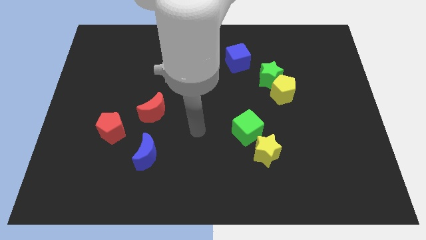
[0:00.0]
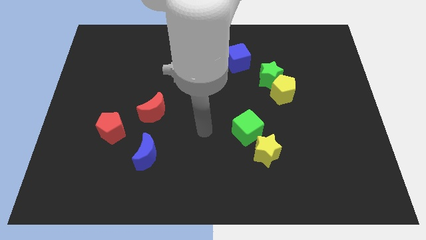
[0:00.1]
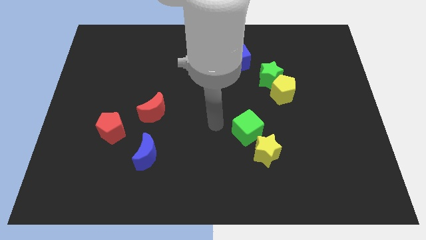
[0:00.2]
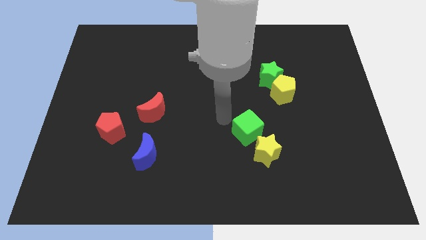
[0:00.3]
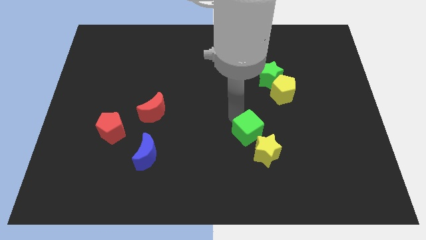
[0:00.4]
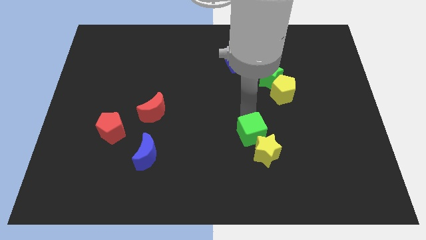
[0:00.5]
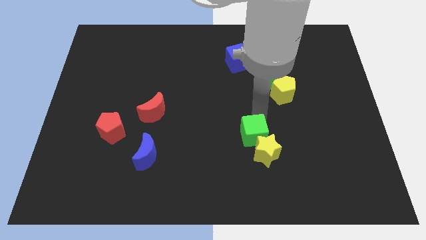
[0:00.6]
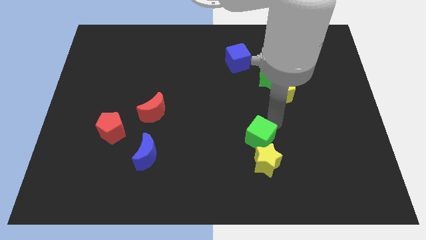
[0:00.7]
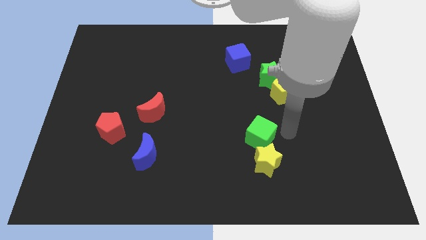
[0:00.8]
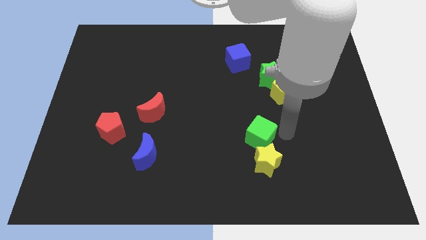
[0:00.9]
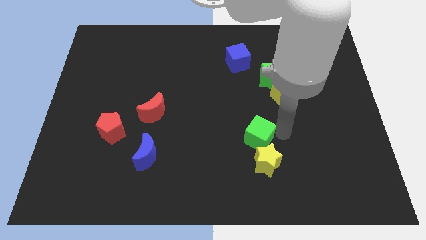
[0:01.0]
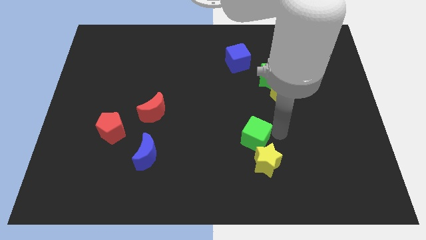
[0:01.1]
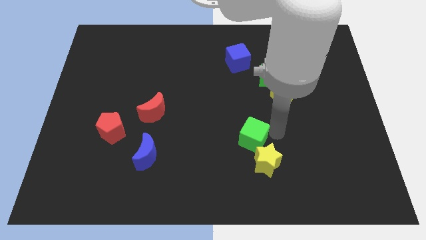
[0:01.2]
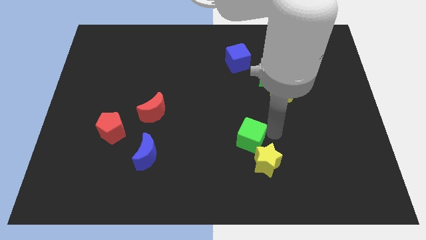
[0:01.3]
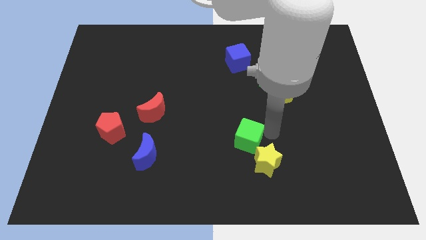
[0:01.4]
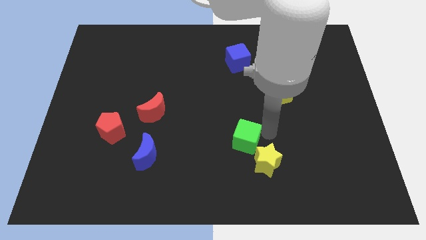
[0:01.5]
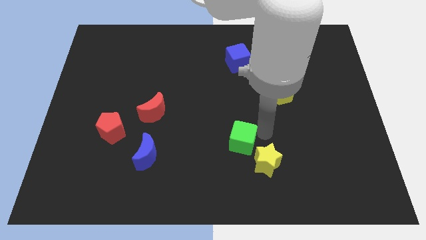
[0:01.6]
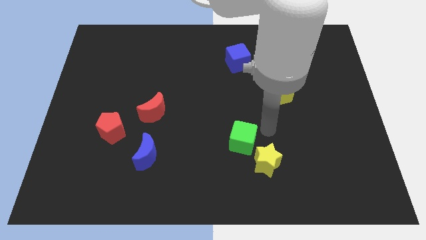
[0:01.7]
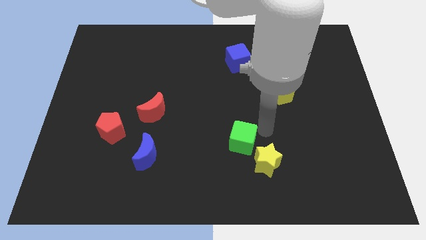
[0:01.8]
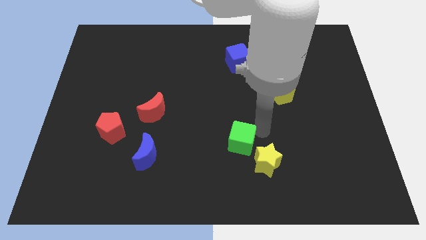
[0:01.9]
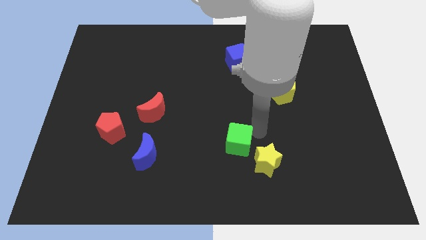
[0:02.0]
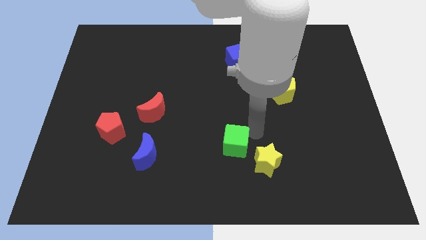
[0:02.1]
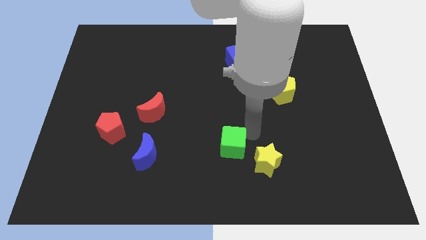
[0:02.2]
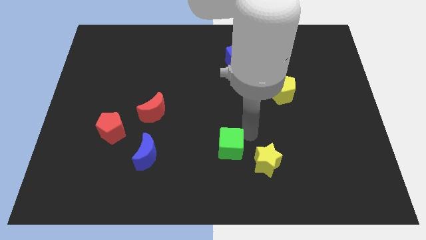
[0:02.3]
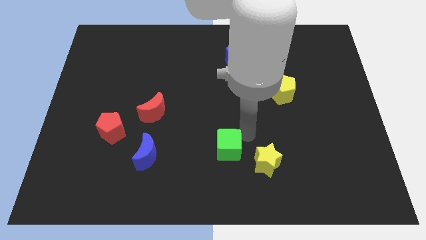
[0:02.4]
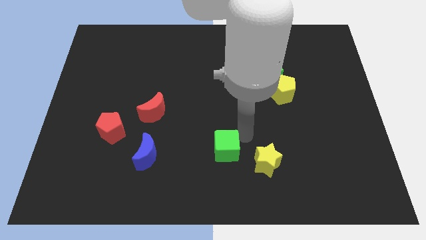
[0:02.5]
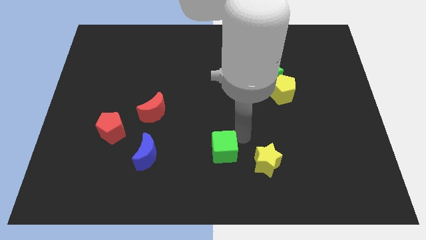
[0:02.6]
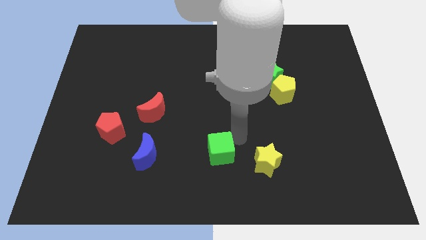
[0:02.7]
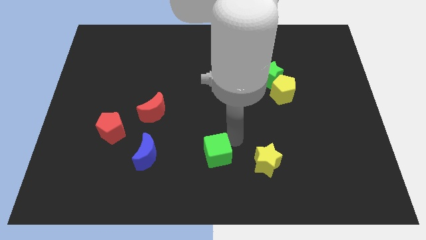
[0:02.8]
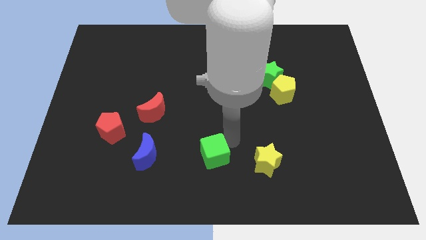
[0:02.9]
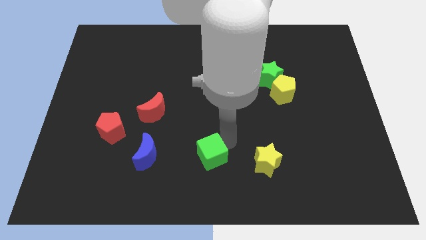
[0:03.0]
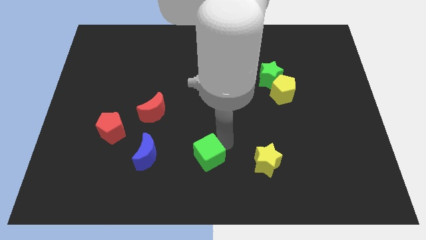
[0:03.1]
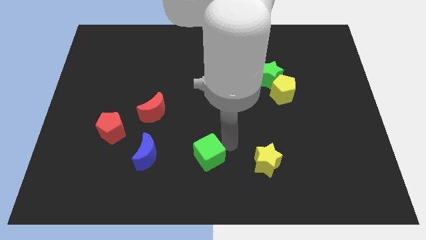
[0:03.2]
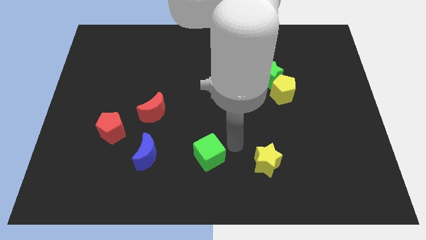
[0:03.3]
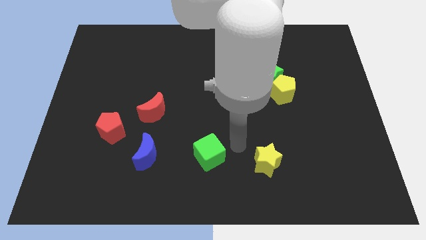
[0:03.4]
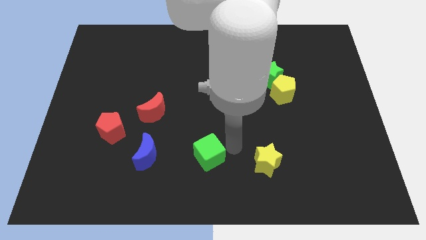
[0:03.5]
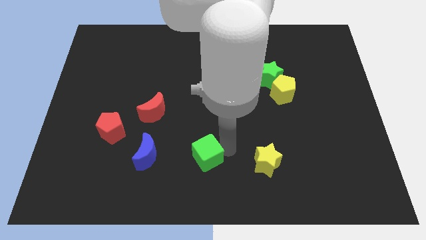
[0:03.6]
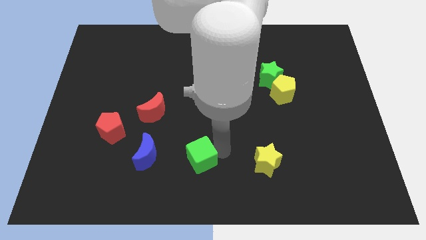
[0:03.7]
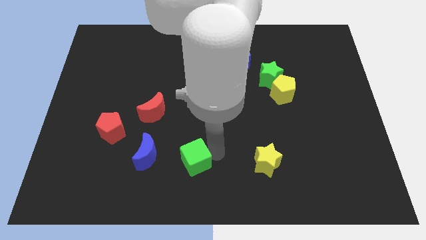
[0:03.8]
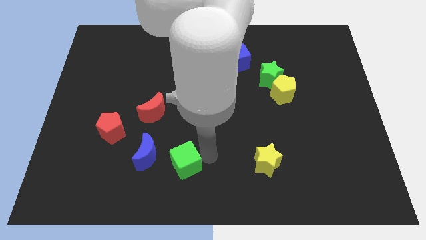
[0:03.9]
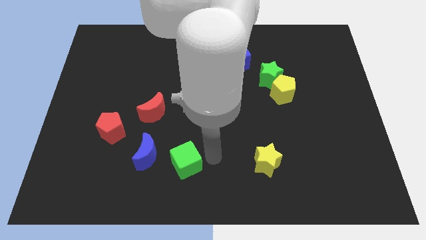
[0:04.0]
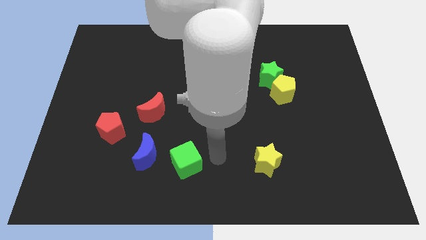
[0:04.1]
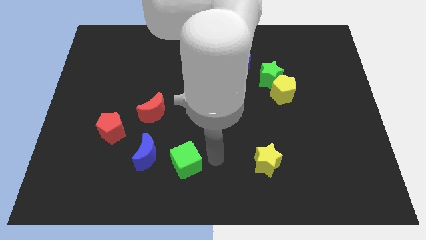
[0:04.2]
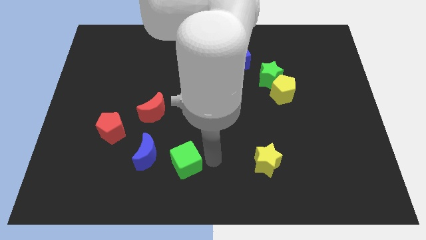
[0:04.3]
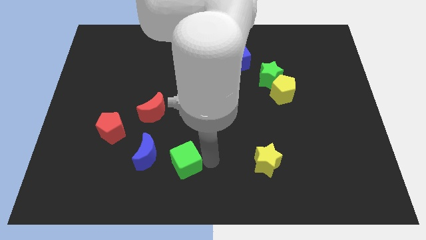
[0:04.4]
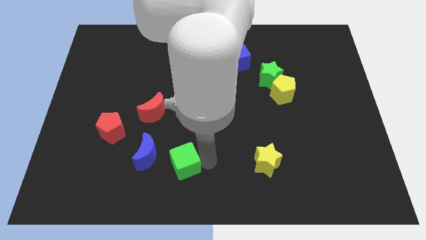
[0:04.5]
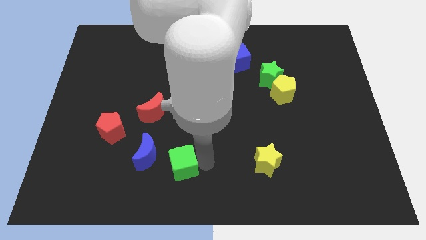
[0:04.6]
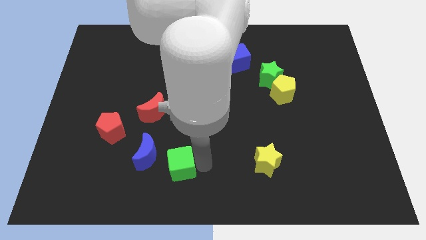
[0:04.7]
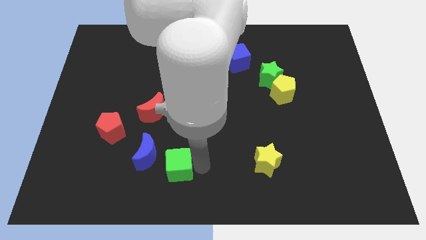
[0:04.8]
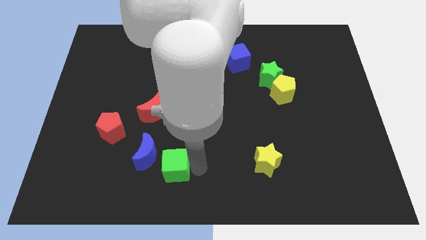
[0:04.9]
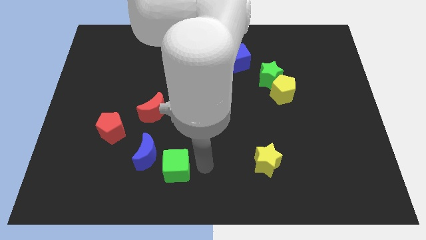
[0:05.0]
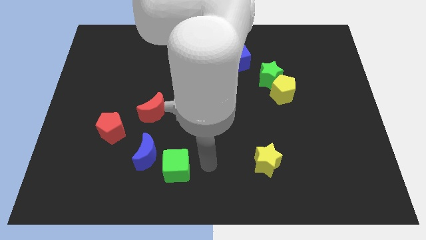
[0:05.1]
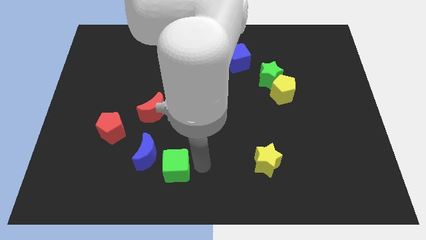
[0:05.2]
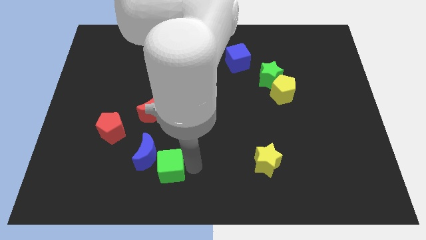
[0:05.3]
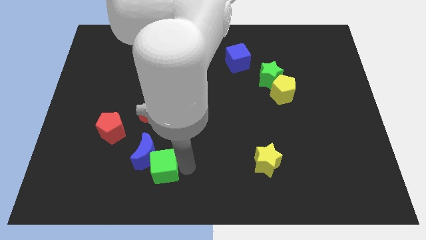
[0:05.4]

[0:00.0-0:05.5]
put the green cube to the bottom of the red moon

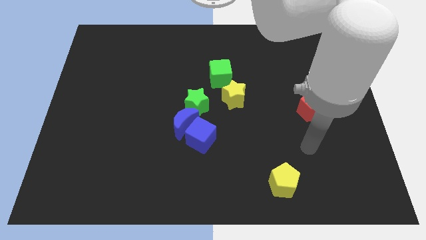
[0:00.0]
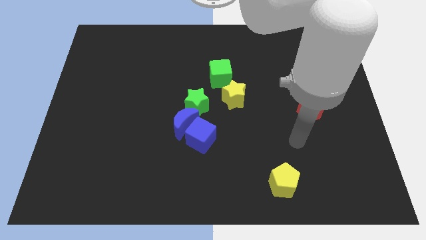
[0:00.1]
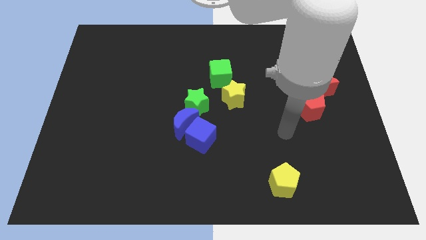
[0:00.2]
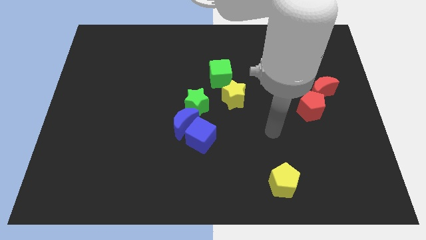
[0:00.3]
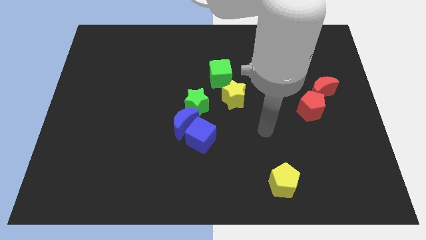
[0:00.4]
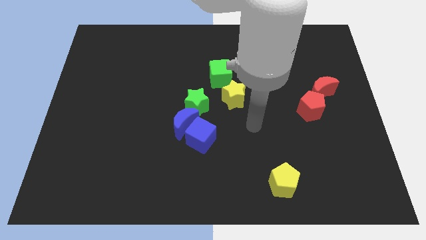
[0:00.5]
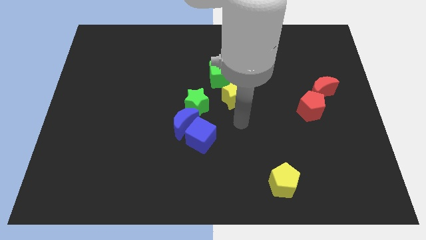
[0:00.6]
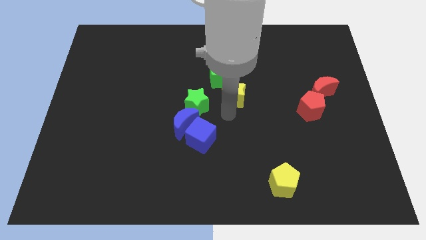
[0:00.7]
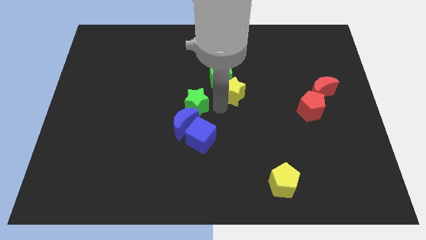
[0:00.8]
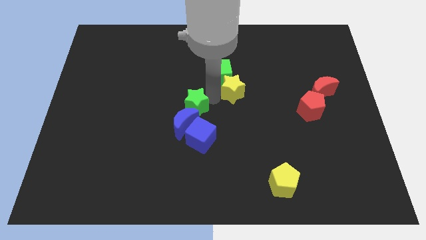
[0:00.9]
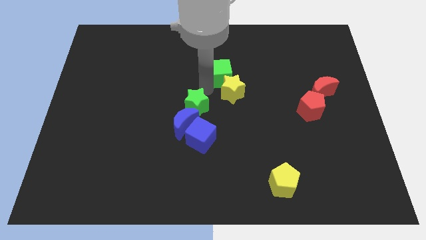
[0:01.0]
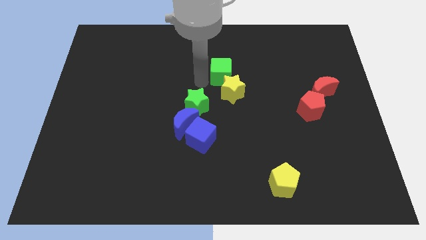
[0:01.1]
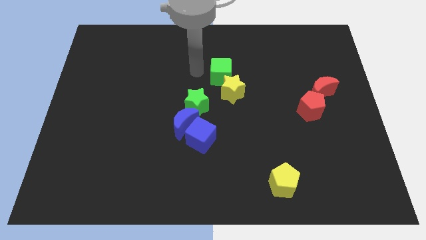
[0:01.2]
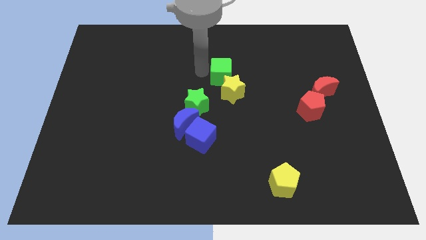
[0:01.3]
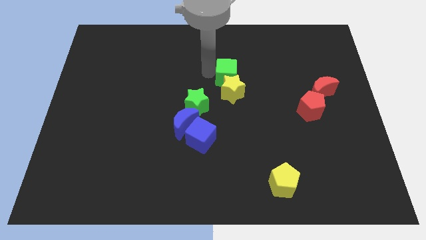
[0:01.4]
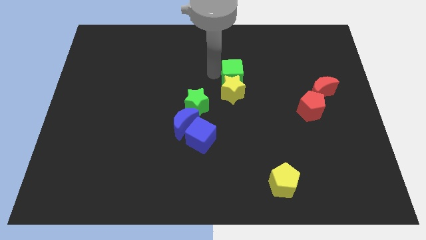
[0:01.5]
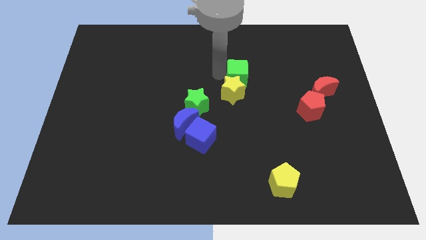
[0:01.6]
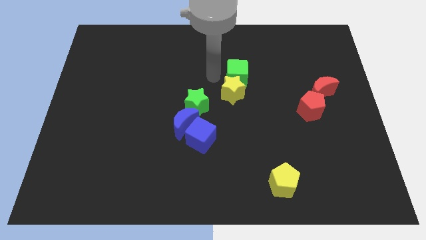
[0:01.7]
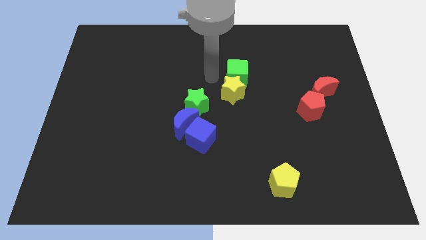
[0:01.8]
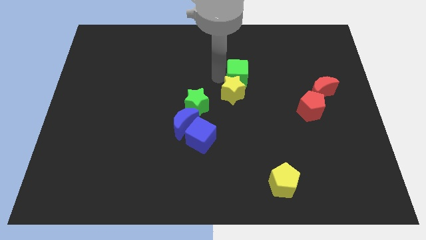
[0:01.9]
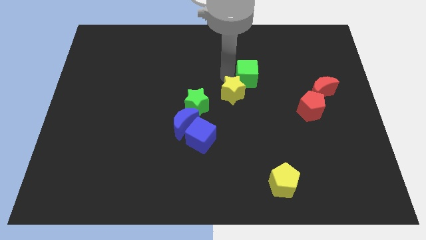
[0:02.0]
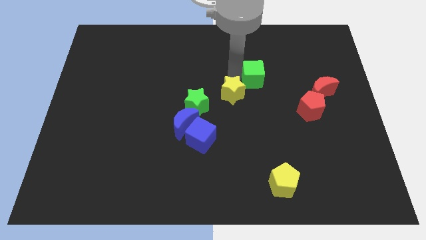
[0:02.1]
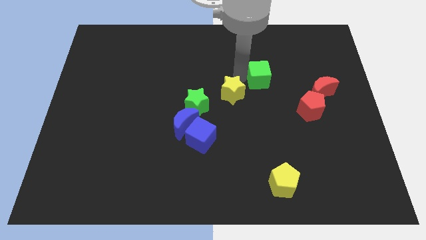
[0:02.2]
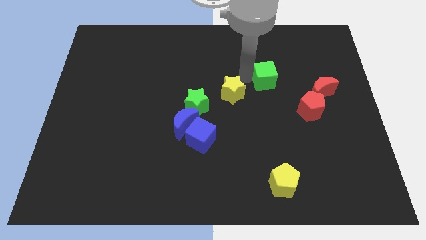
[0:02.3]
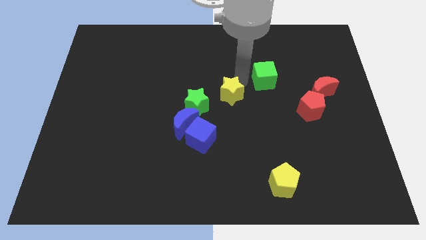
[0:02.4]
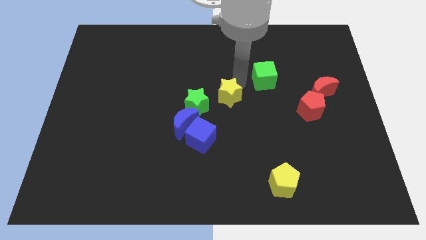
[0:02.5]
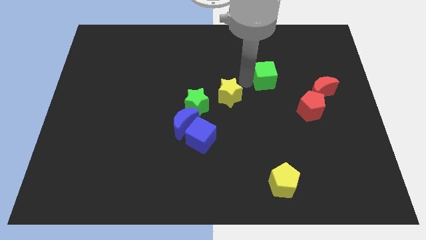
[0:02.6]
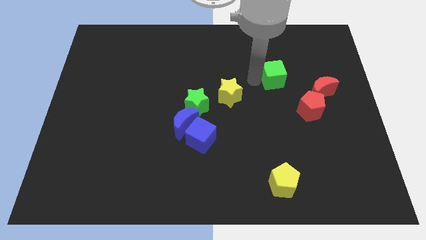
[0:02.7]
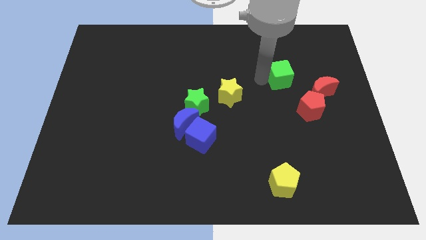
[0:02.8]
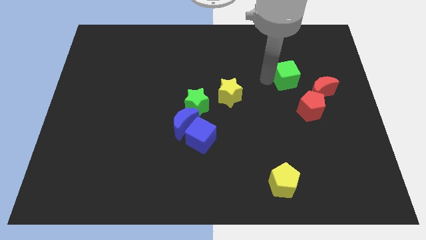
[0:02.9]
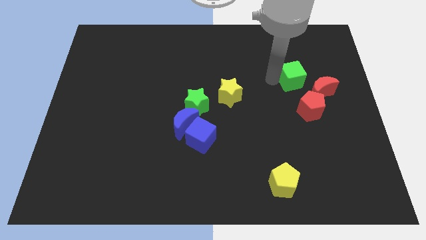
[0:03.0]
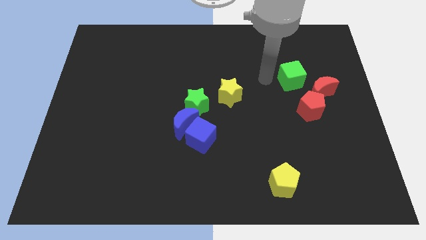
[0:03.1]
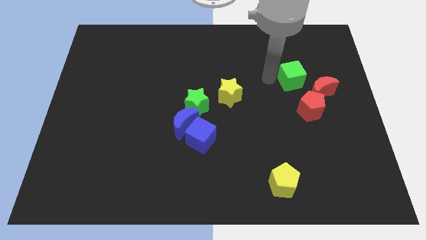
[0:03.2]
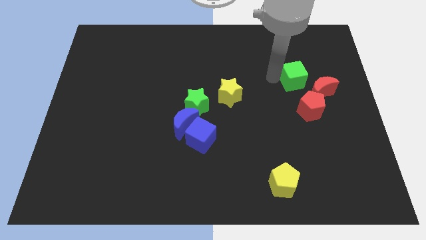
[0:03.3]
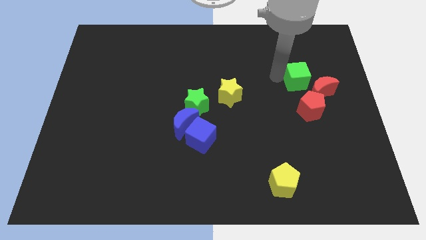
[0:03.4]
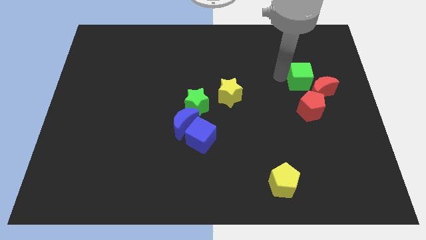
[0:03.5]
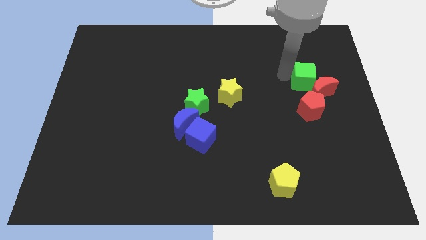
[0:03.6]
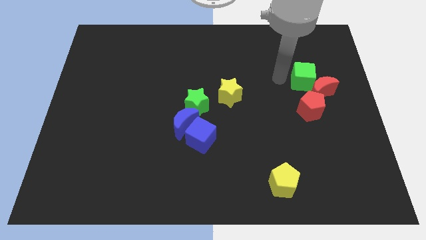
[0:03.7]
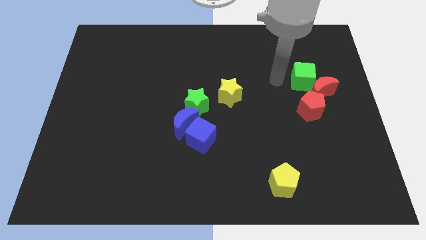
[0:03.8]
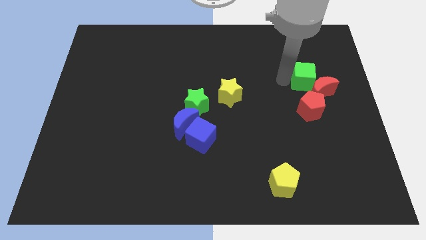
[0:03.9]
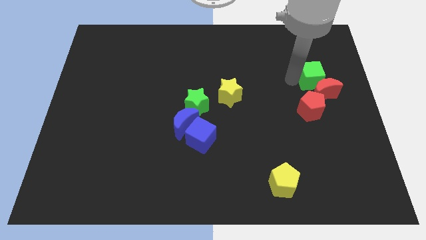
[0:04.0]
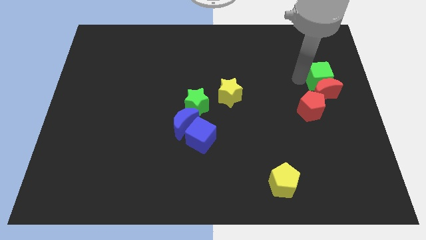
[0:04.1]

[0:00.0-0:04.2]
put the green cube to the top right side of the red pentagon
